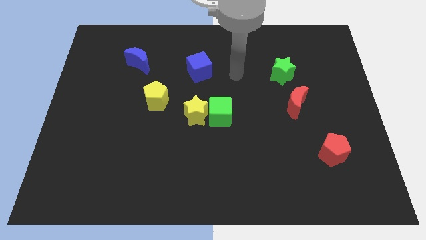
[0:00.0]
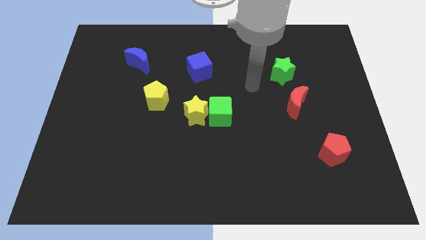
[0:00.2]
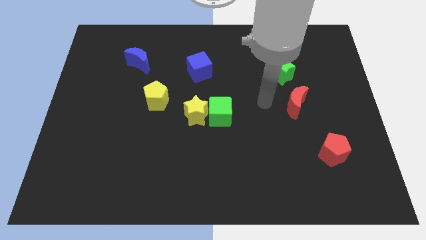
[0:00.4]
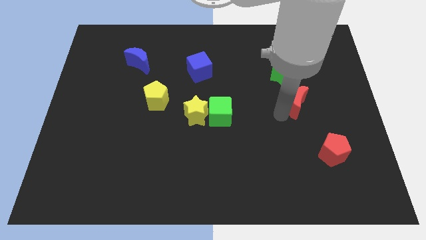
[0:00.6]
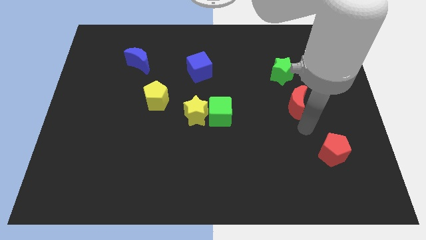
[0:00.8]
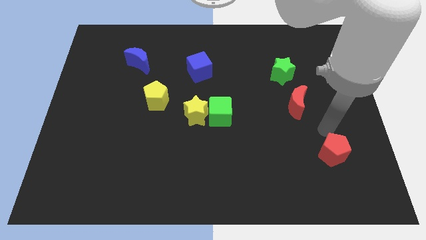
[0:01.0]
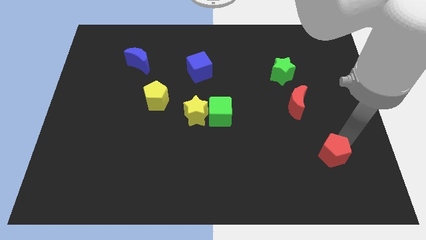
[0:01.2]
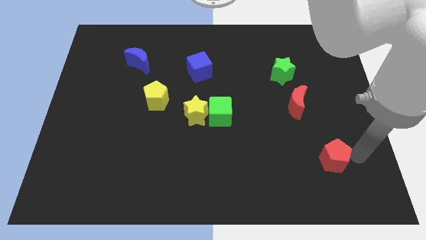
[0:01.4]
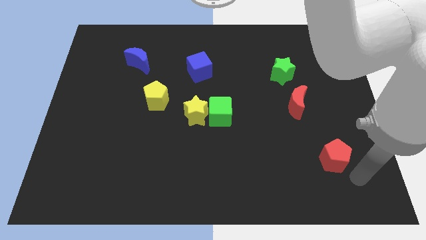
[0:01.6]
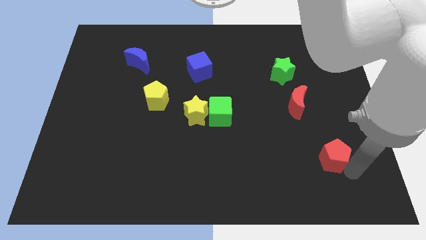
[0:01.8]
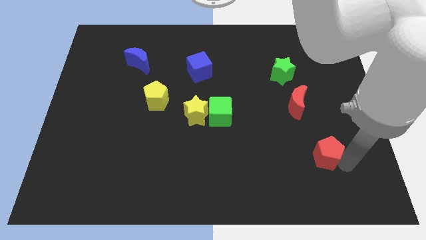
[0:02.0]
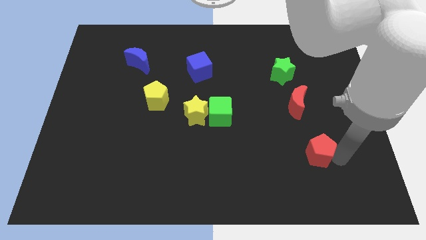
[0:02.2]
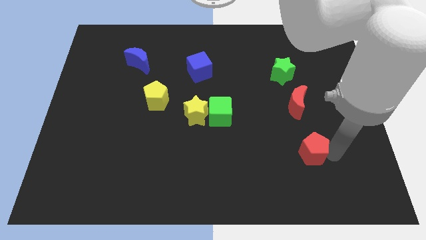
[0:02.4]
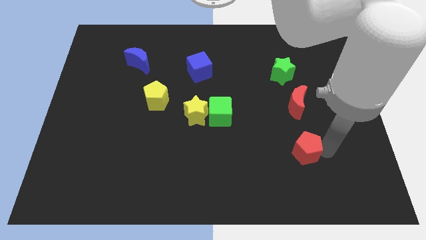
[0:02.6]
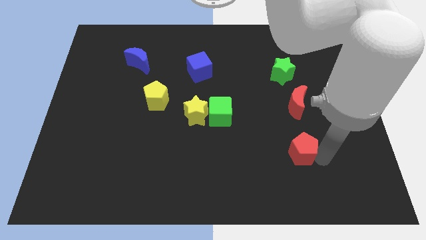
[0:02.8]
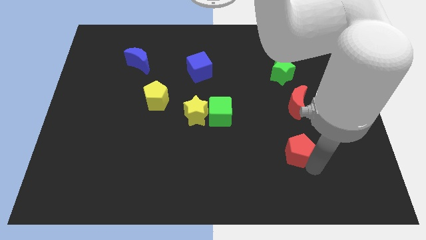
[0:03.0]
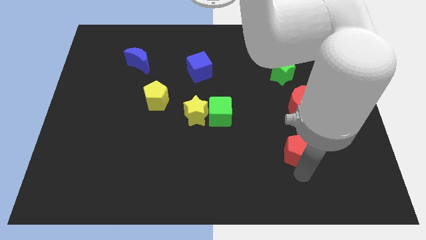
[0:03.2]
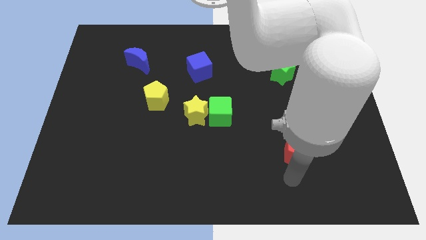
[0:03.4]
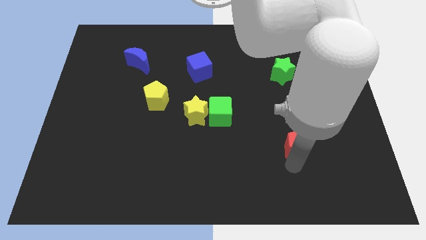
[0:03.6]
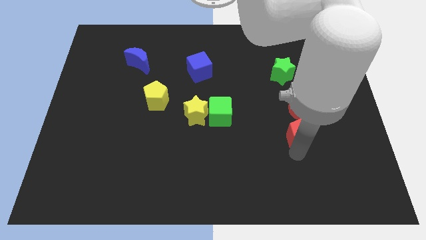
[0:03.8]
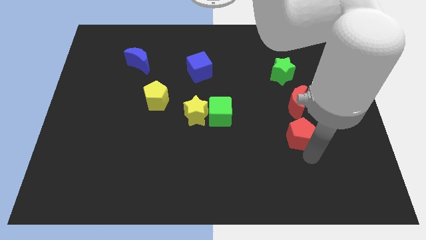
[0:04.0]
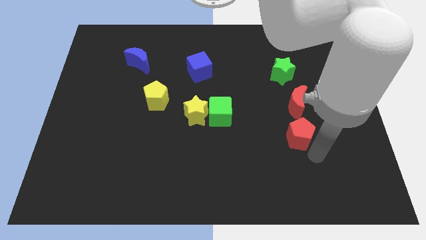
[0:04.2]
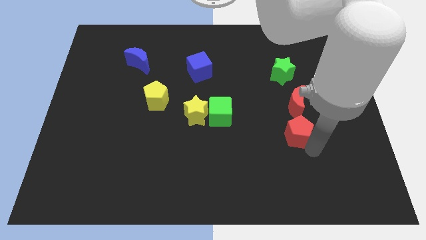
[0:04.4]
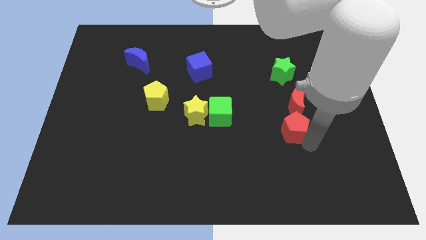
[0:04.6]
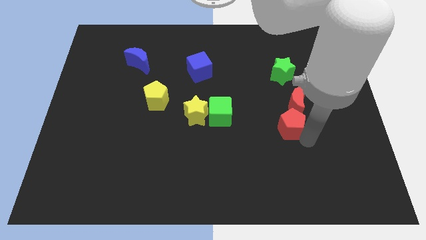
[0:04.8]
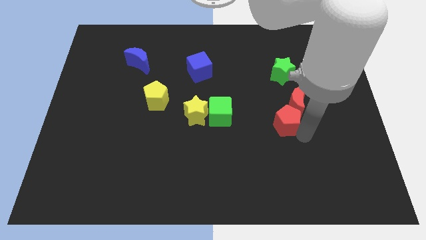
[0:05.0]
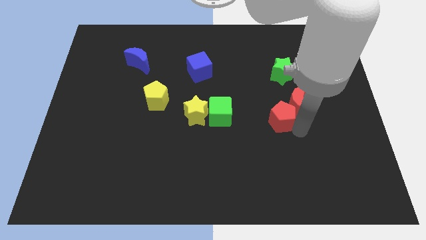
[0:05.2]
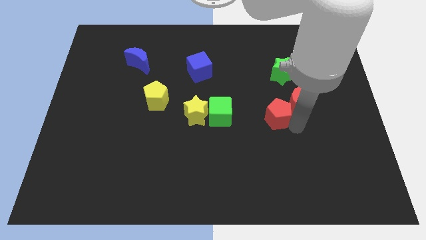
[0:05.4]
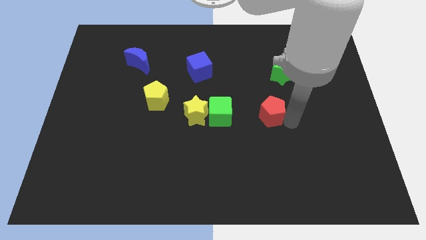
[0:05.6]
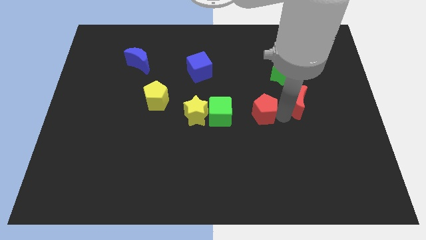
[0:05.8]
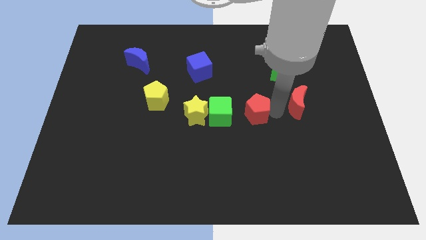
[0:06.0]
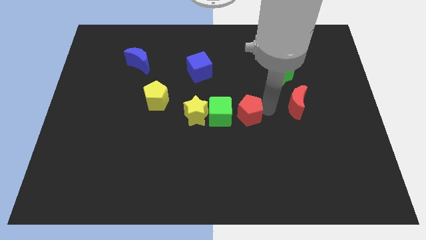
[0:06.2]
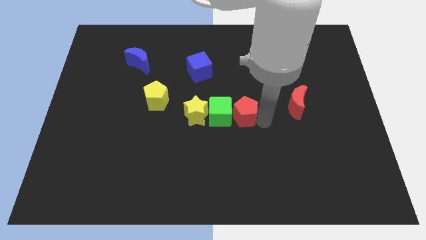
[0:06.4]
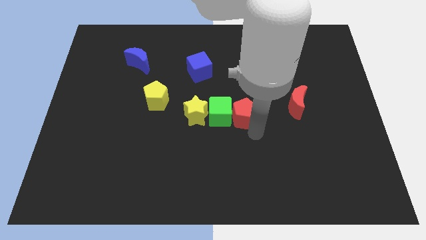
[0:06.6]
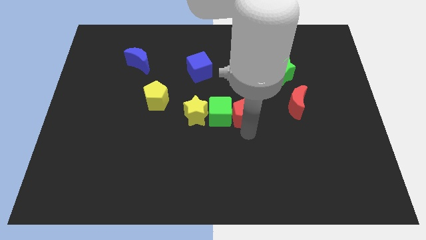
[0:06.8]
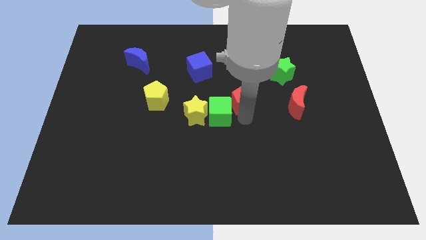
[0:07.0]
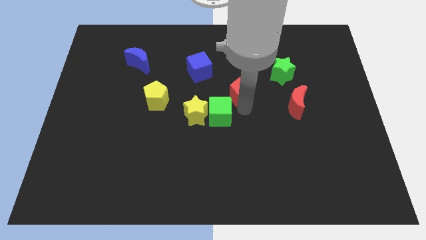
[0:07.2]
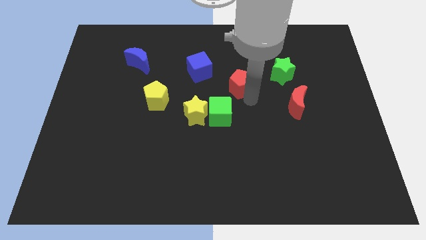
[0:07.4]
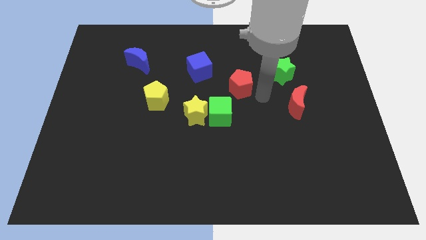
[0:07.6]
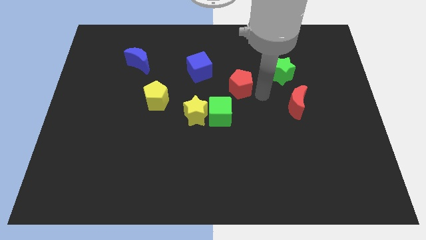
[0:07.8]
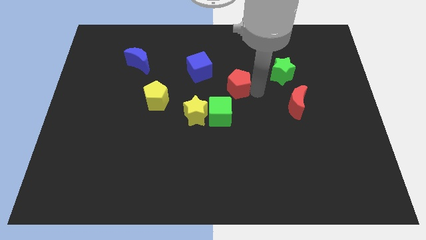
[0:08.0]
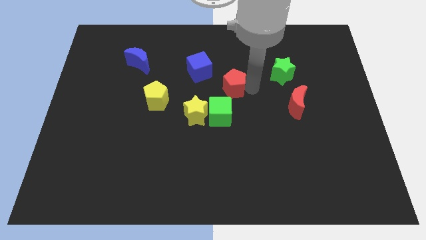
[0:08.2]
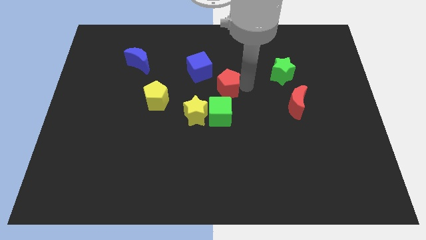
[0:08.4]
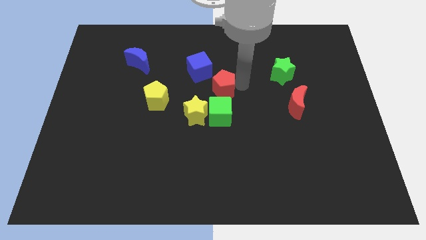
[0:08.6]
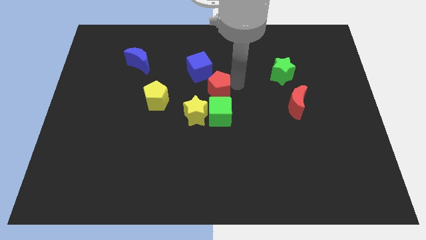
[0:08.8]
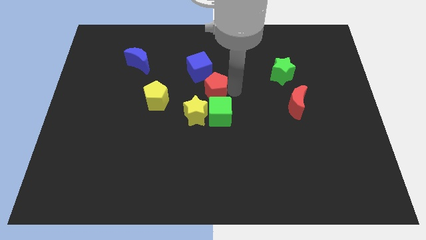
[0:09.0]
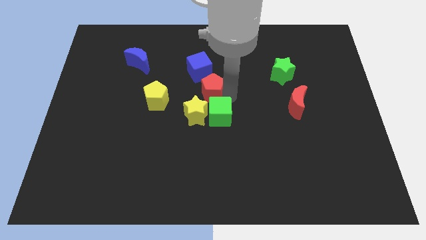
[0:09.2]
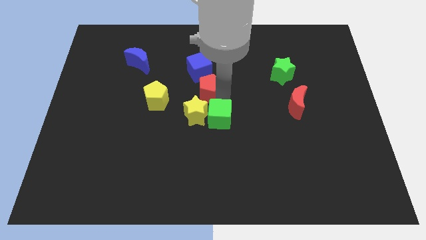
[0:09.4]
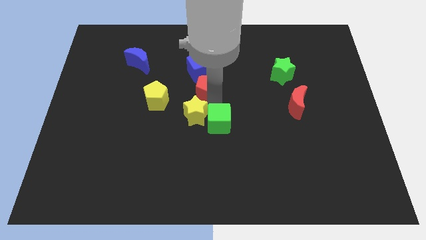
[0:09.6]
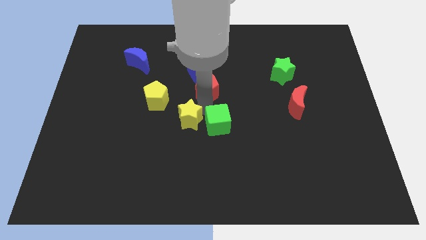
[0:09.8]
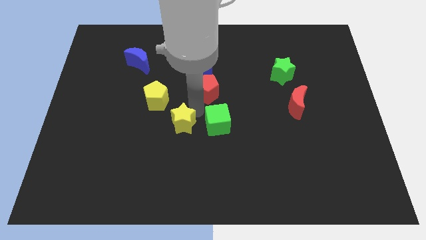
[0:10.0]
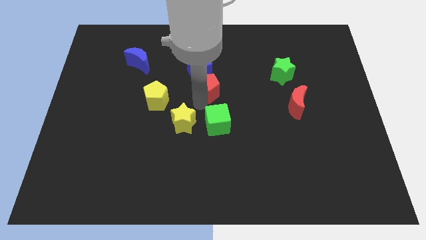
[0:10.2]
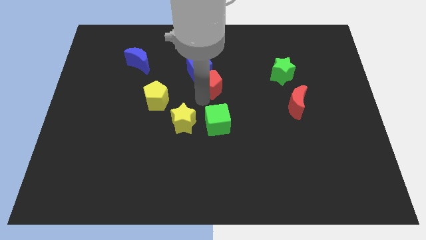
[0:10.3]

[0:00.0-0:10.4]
push the red pentagon towards the blue cube

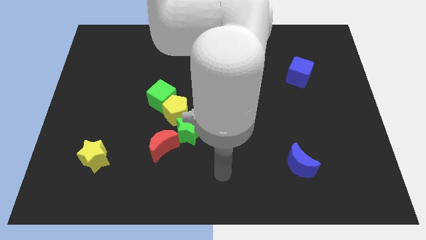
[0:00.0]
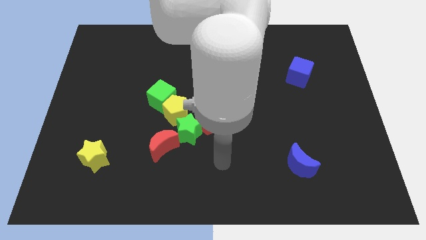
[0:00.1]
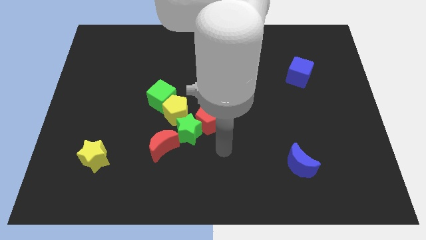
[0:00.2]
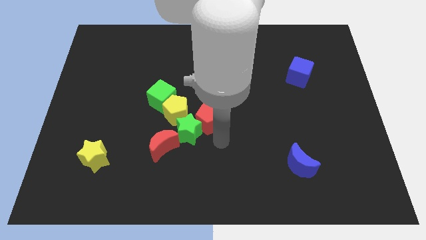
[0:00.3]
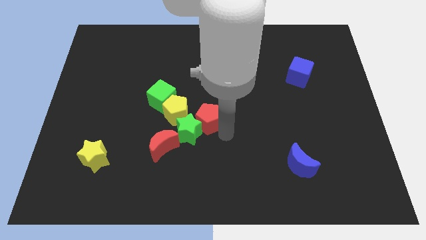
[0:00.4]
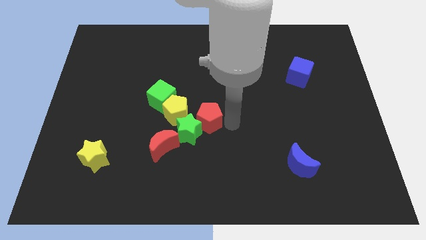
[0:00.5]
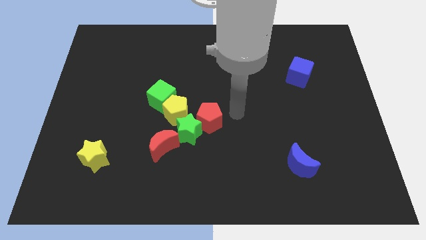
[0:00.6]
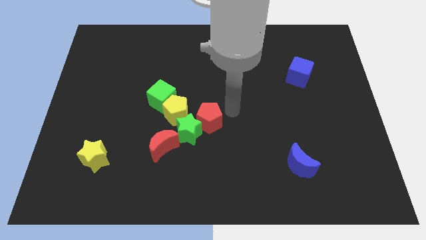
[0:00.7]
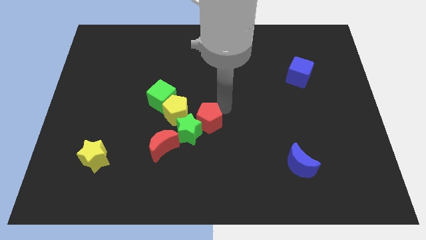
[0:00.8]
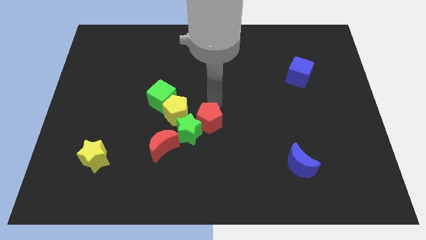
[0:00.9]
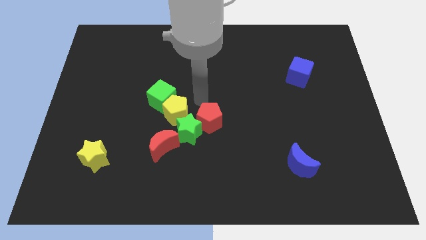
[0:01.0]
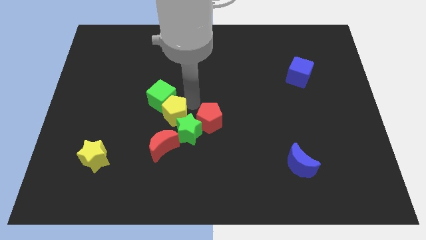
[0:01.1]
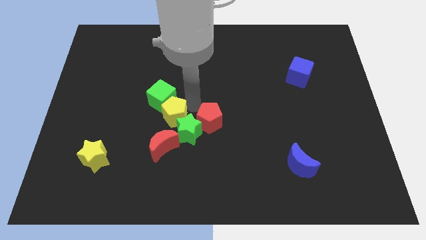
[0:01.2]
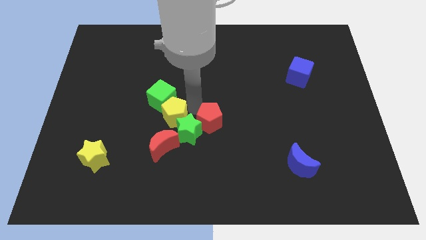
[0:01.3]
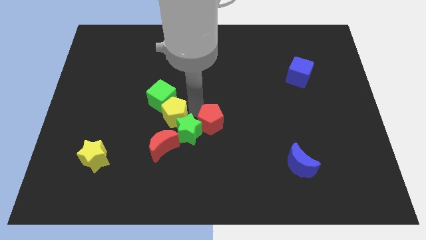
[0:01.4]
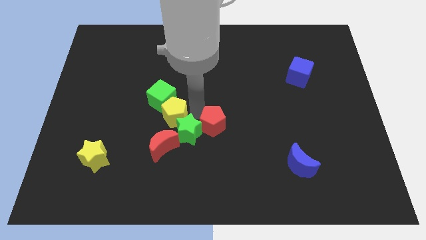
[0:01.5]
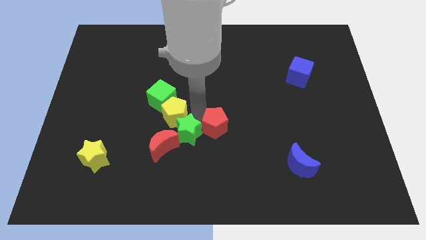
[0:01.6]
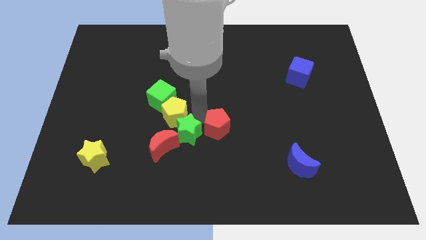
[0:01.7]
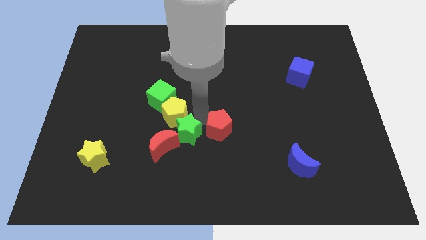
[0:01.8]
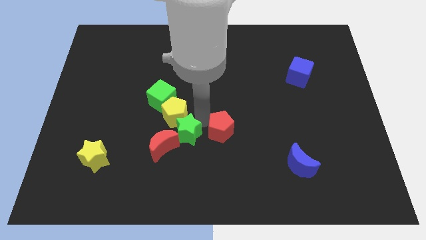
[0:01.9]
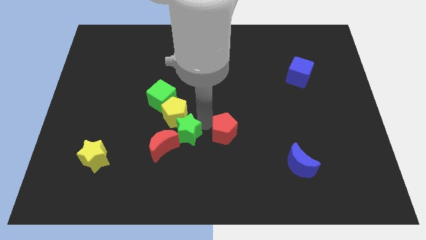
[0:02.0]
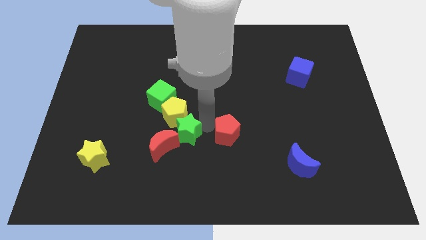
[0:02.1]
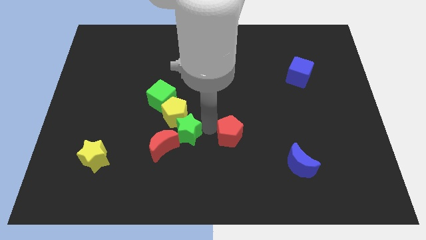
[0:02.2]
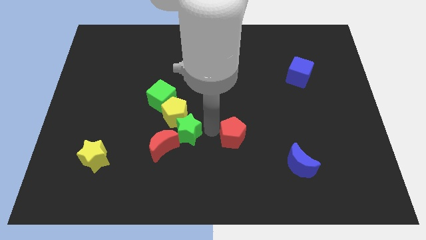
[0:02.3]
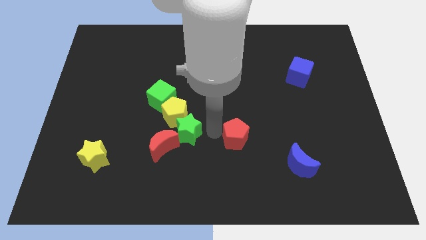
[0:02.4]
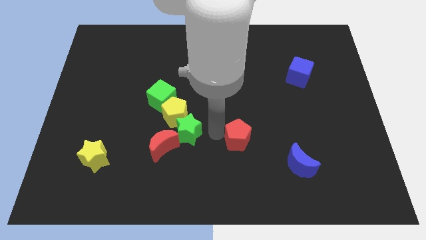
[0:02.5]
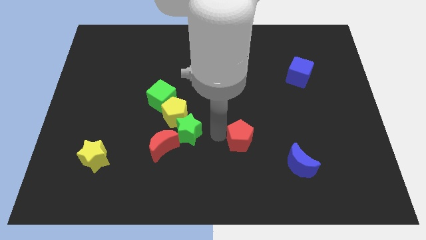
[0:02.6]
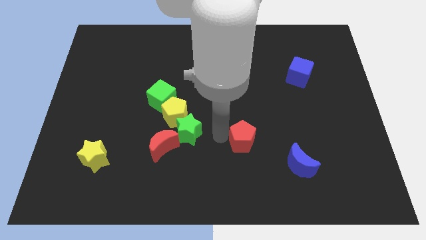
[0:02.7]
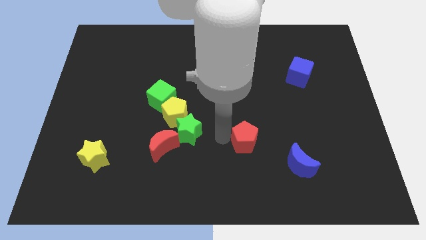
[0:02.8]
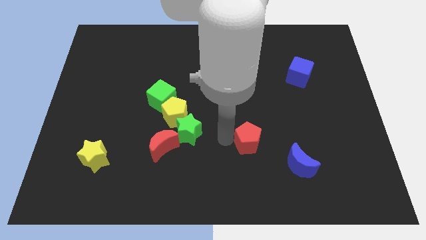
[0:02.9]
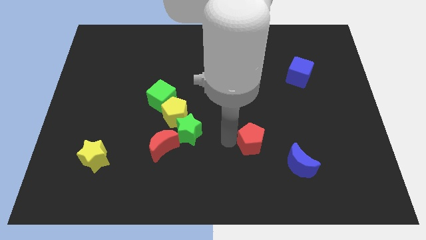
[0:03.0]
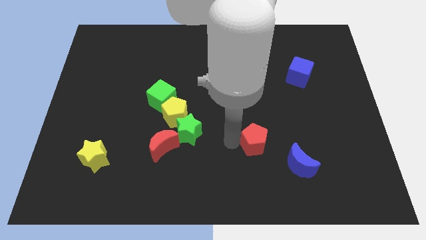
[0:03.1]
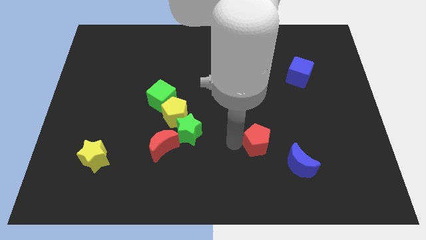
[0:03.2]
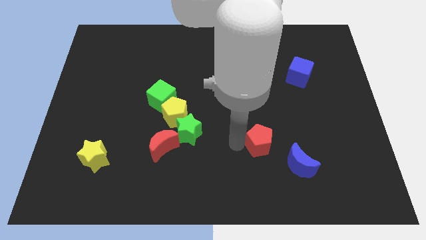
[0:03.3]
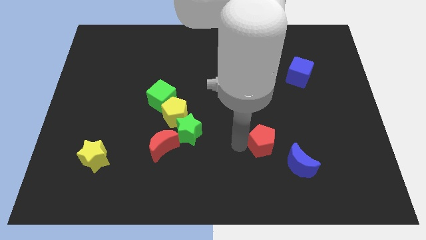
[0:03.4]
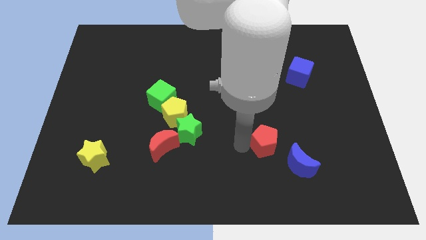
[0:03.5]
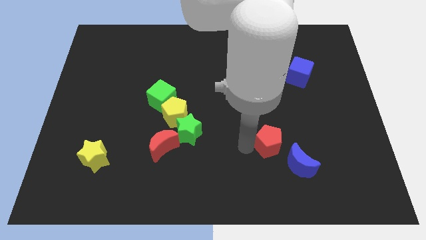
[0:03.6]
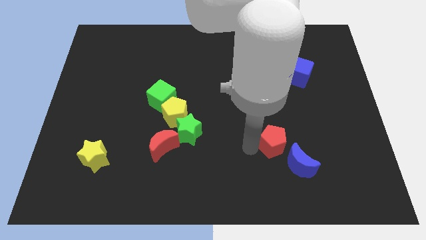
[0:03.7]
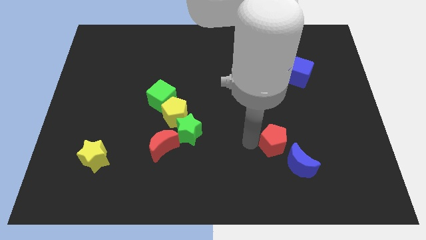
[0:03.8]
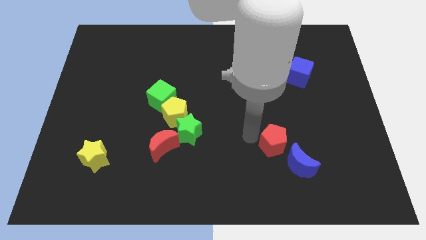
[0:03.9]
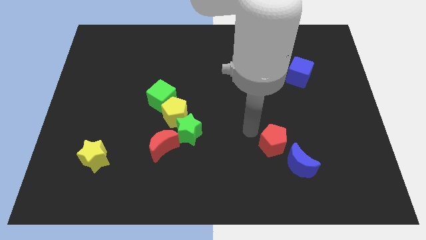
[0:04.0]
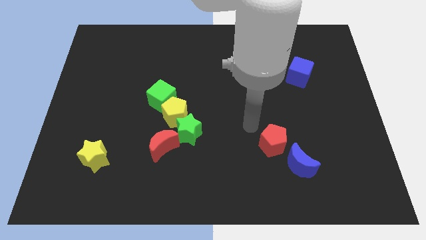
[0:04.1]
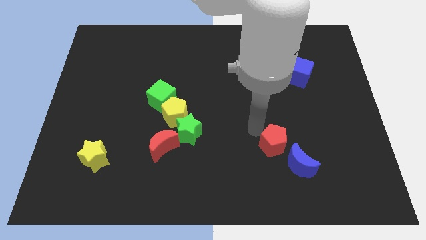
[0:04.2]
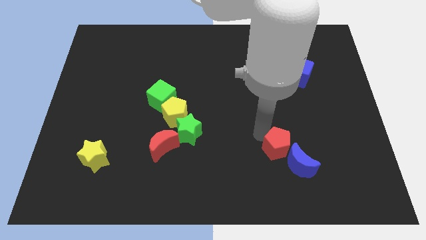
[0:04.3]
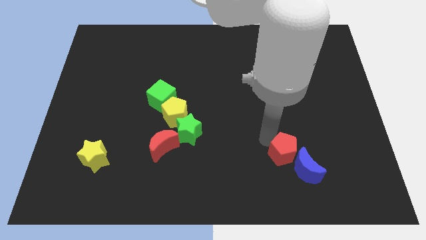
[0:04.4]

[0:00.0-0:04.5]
push the red pentagon close to the blue moon
